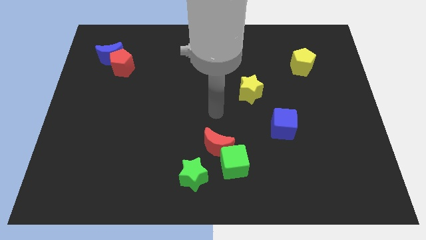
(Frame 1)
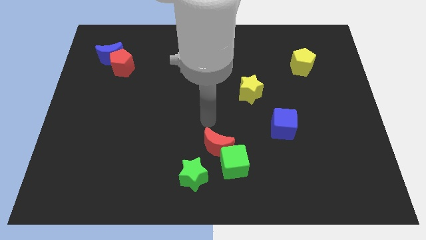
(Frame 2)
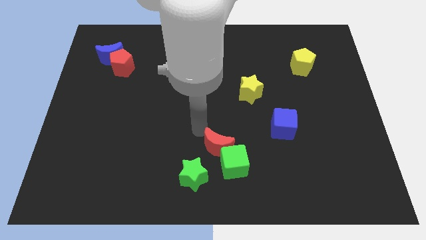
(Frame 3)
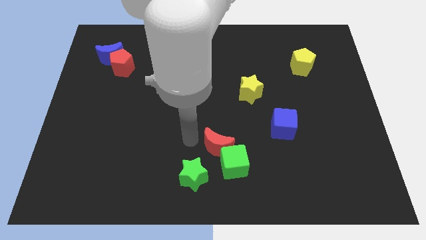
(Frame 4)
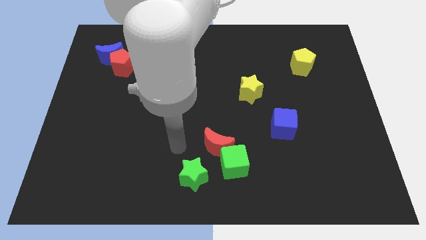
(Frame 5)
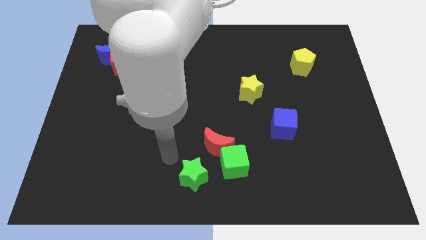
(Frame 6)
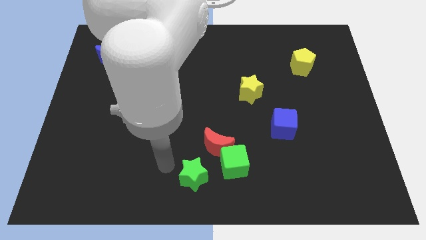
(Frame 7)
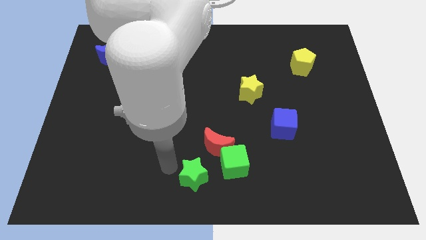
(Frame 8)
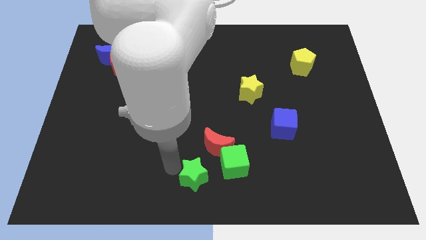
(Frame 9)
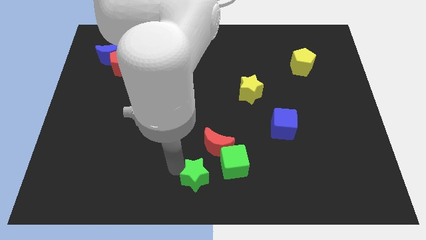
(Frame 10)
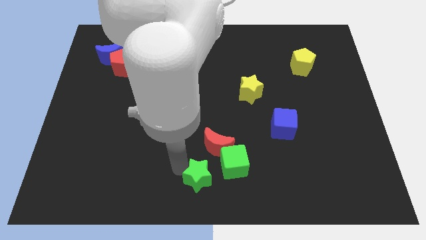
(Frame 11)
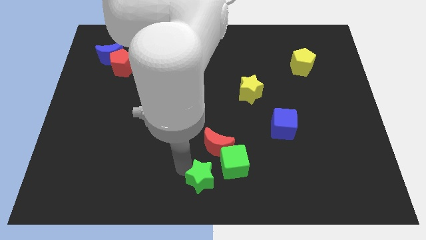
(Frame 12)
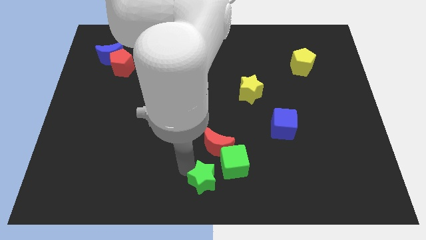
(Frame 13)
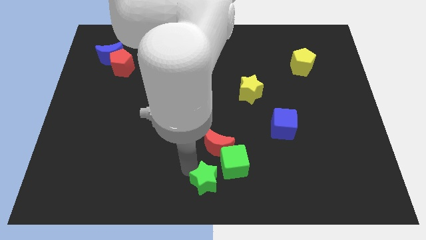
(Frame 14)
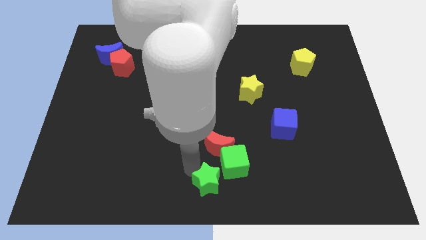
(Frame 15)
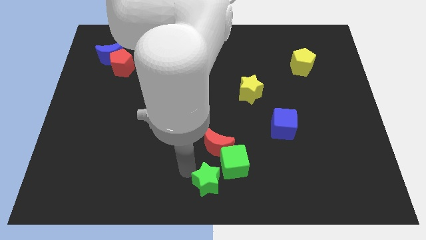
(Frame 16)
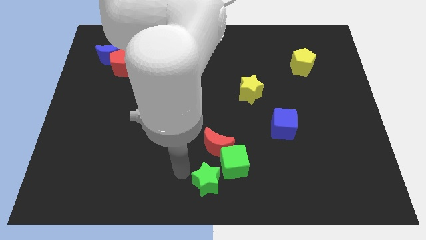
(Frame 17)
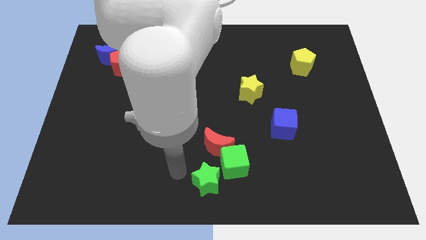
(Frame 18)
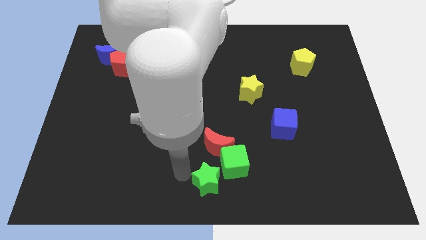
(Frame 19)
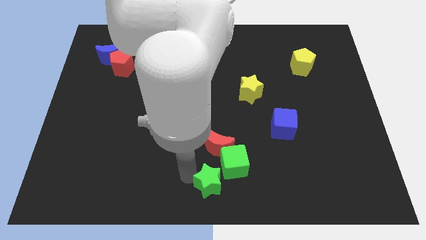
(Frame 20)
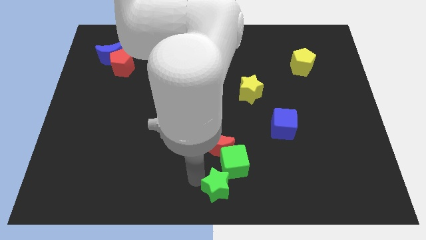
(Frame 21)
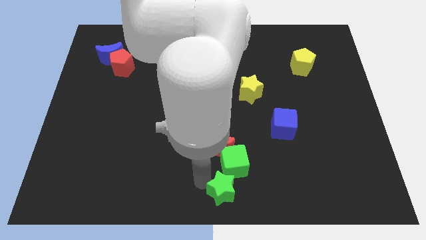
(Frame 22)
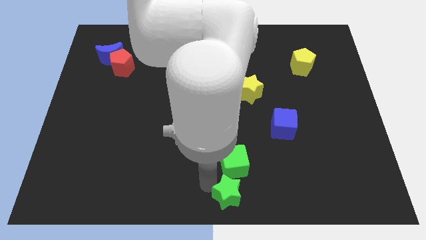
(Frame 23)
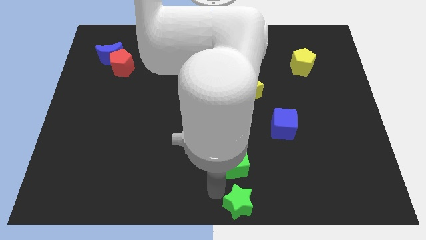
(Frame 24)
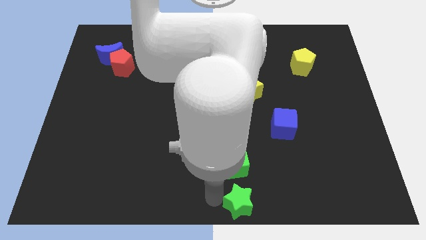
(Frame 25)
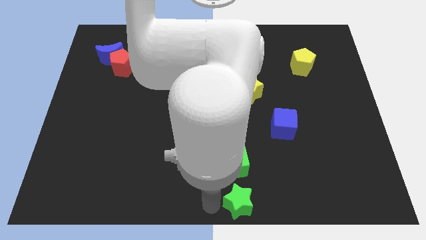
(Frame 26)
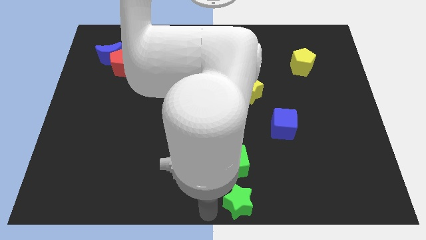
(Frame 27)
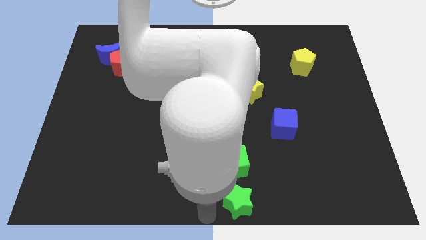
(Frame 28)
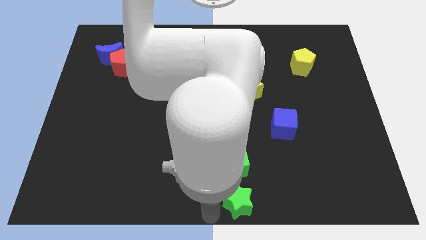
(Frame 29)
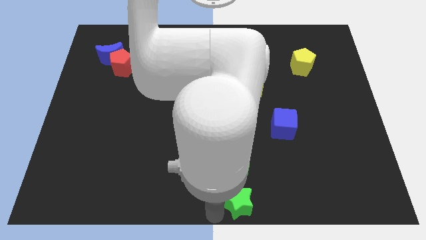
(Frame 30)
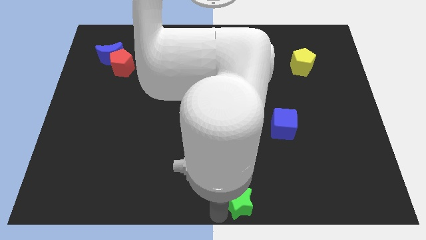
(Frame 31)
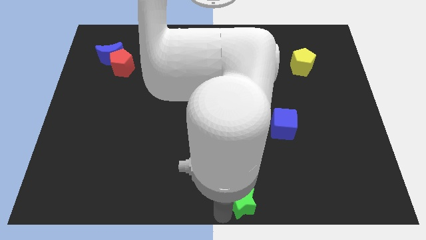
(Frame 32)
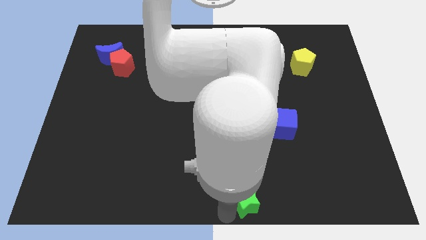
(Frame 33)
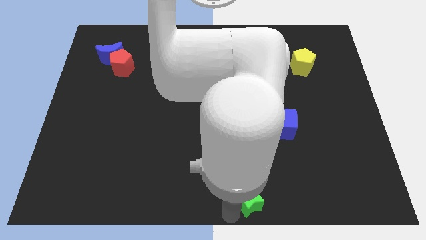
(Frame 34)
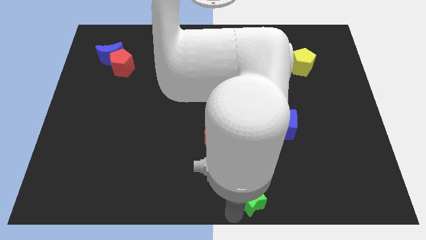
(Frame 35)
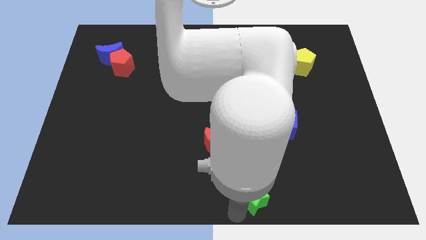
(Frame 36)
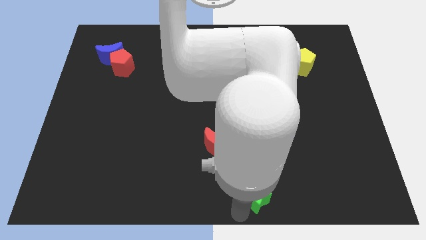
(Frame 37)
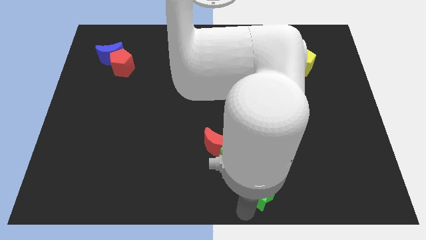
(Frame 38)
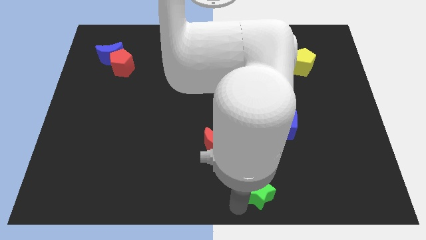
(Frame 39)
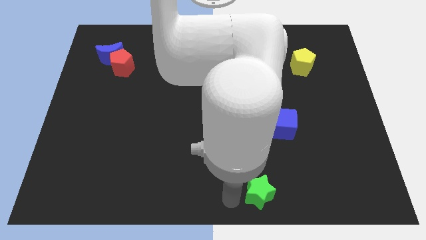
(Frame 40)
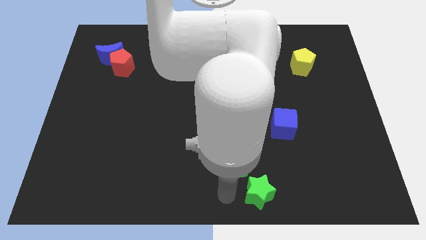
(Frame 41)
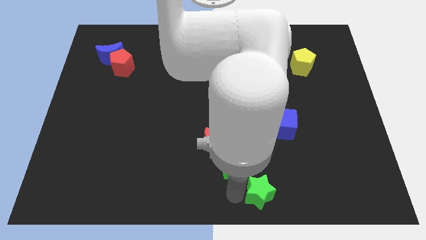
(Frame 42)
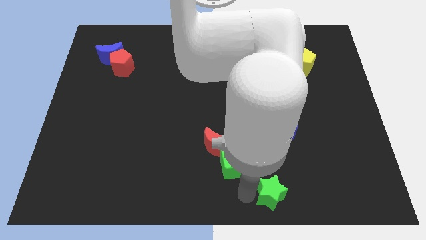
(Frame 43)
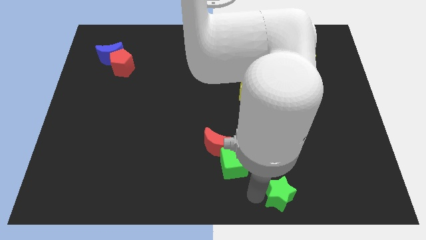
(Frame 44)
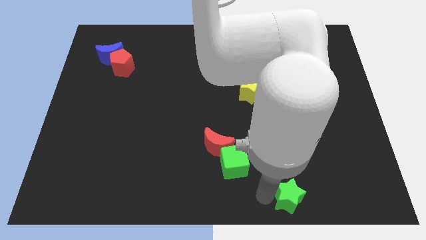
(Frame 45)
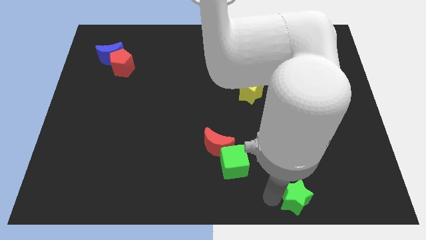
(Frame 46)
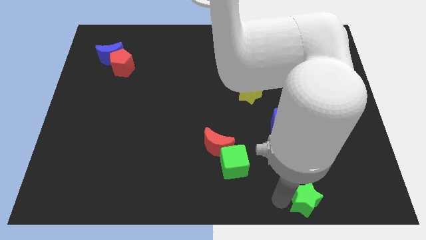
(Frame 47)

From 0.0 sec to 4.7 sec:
slide the green star to the right

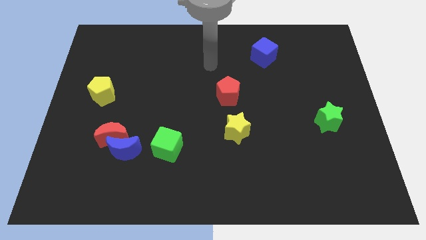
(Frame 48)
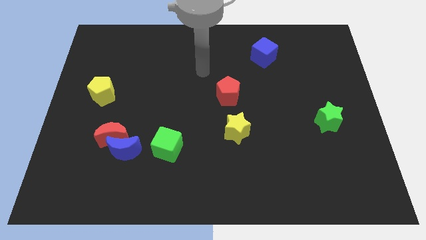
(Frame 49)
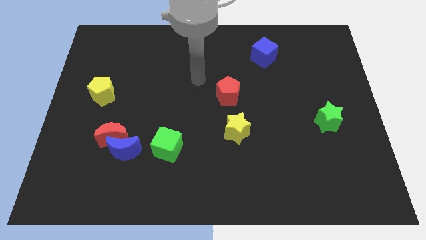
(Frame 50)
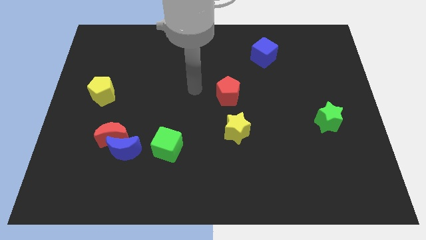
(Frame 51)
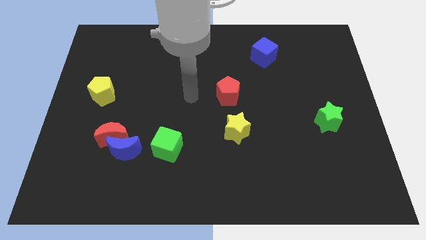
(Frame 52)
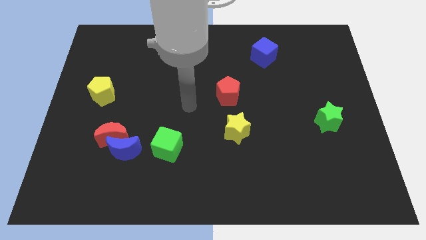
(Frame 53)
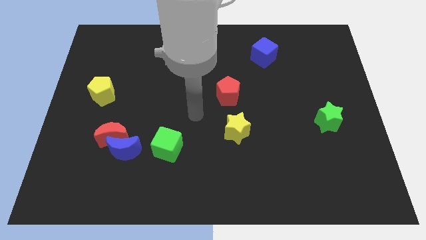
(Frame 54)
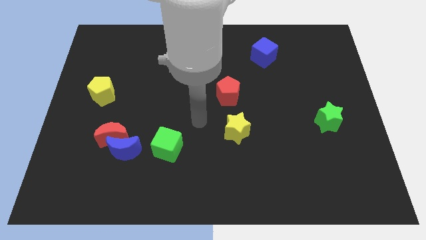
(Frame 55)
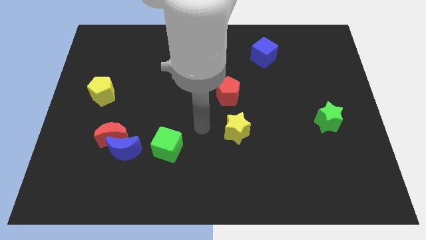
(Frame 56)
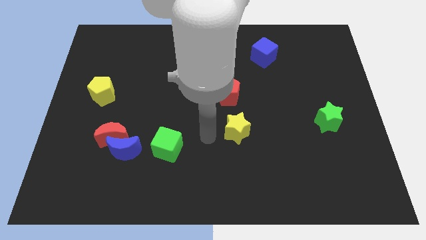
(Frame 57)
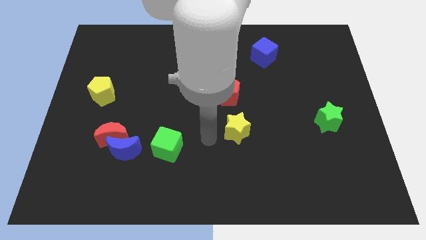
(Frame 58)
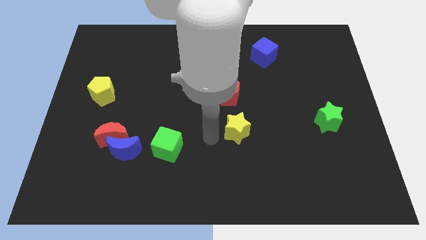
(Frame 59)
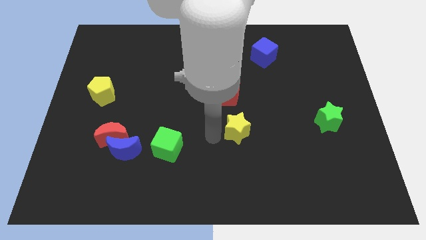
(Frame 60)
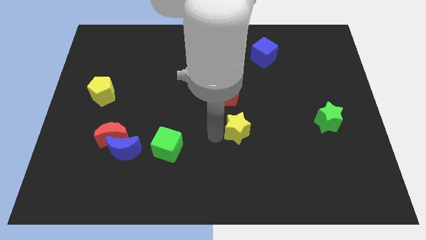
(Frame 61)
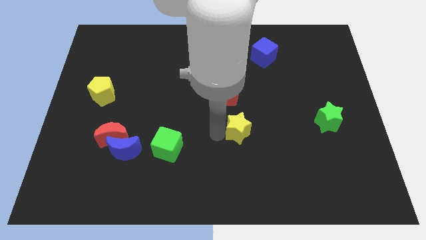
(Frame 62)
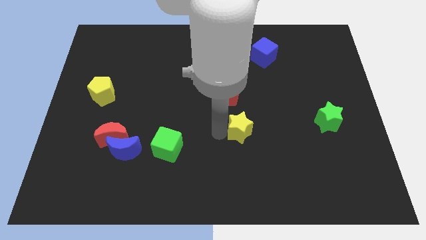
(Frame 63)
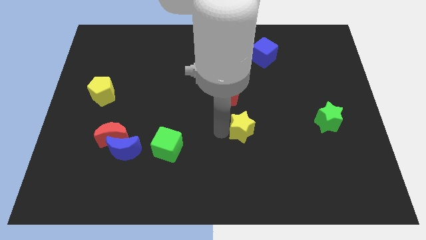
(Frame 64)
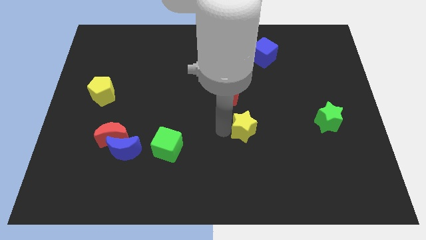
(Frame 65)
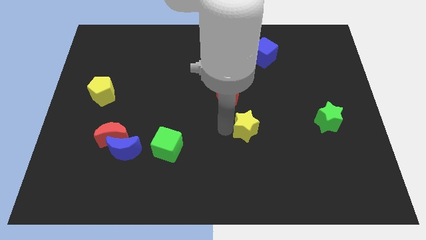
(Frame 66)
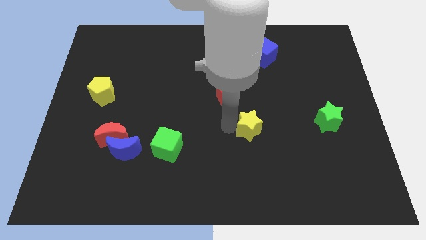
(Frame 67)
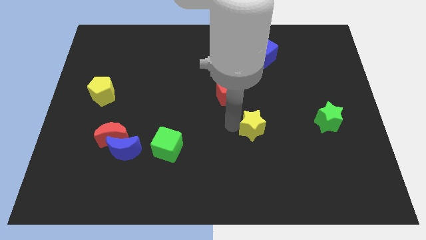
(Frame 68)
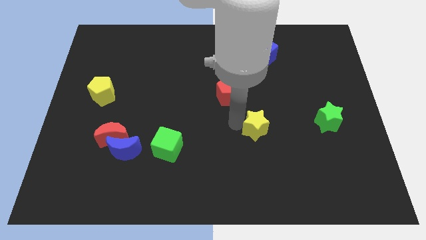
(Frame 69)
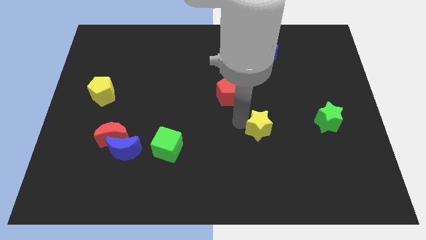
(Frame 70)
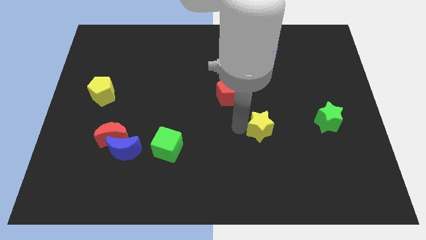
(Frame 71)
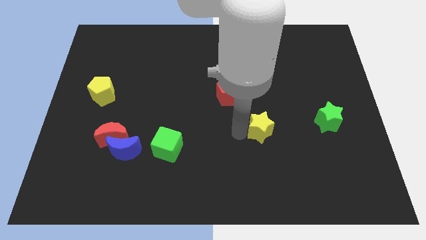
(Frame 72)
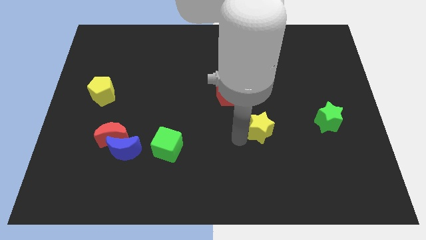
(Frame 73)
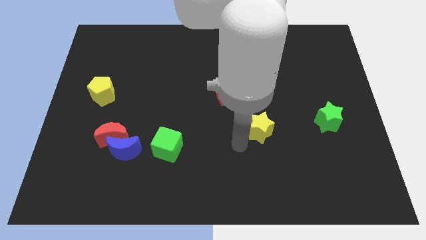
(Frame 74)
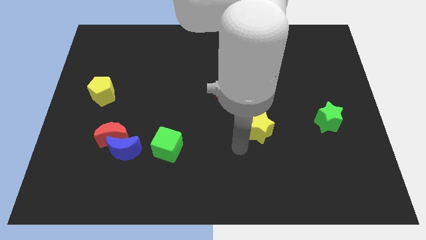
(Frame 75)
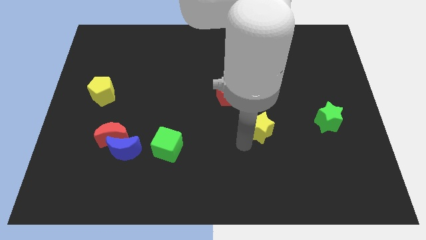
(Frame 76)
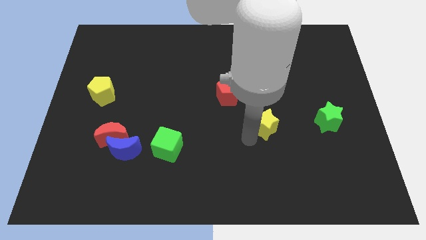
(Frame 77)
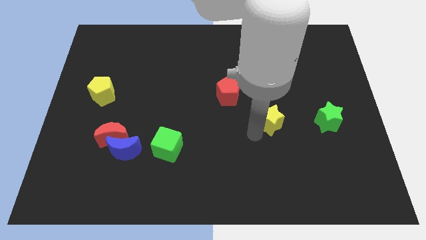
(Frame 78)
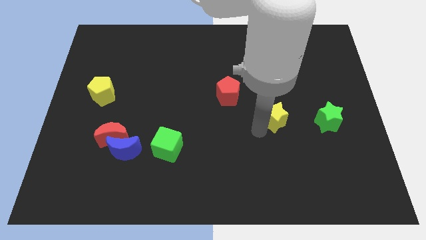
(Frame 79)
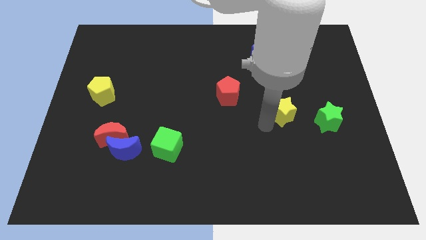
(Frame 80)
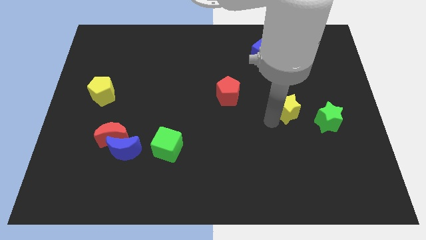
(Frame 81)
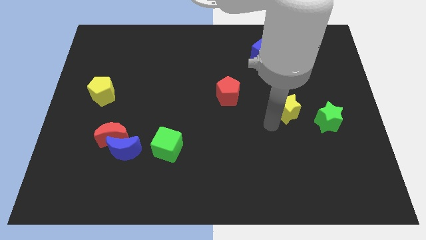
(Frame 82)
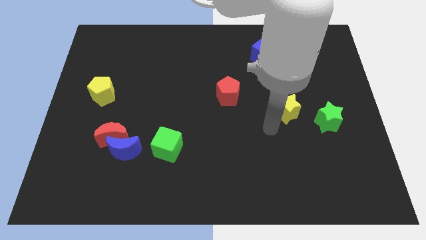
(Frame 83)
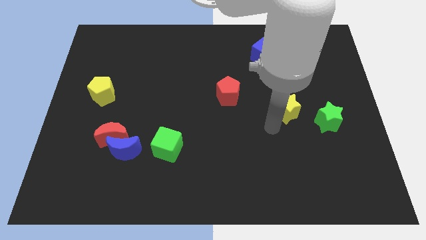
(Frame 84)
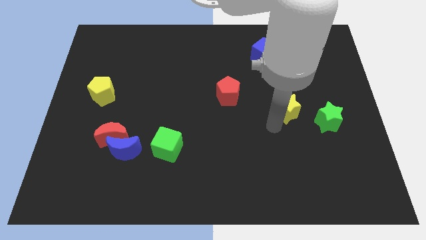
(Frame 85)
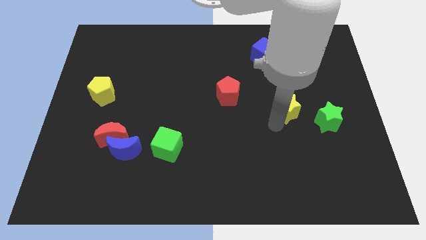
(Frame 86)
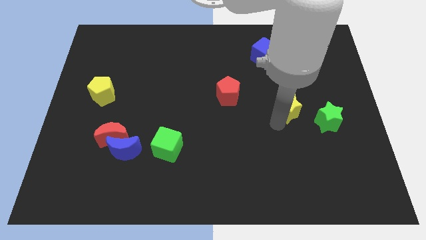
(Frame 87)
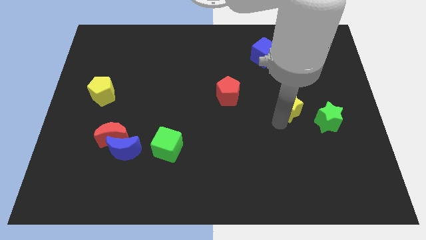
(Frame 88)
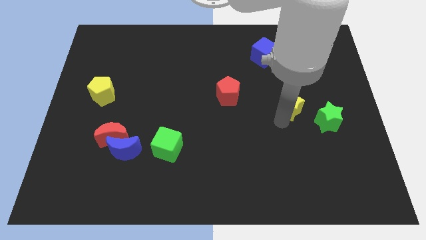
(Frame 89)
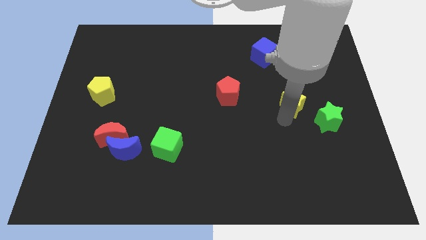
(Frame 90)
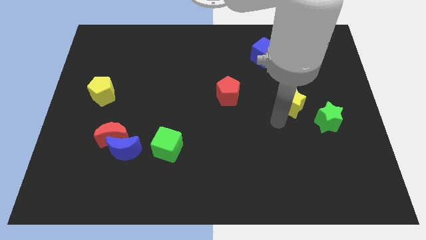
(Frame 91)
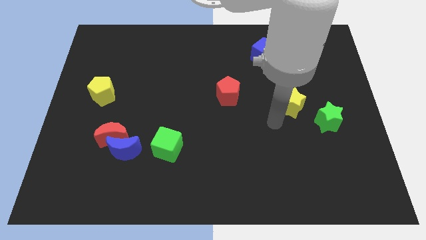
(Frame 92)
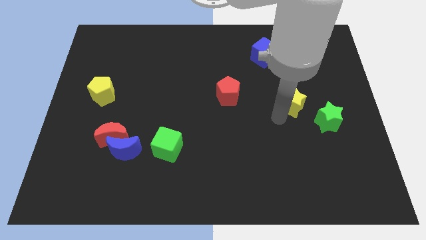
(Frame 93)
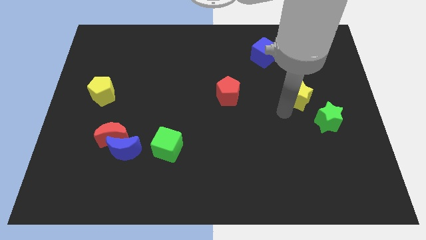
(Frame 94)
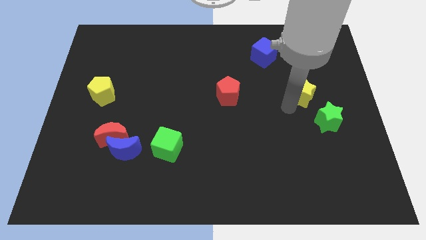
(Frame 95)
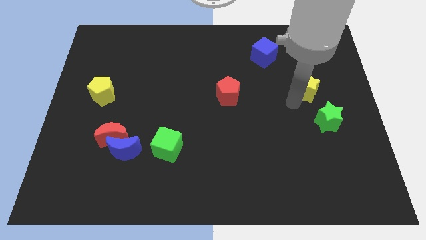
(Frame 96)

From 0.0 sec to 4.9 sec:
slide the yellow star up and to the right
